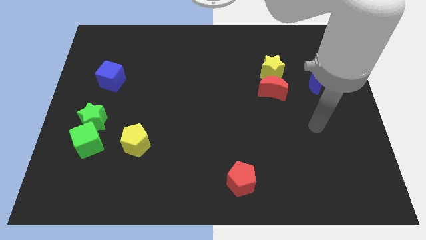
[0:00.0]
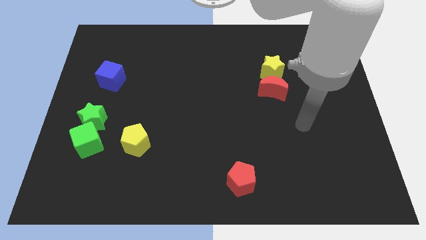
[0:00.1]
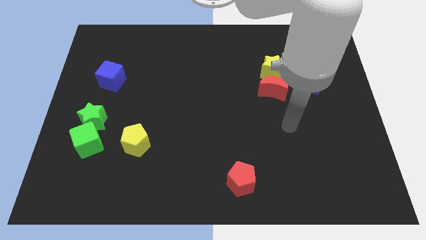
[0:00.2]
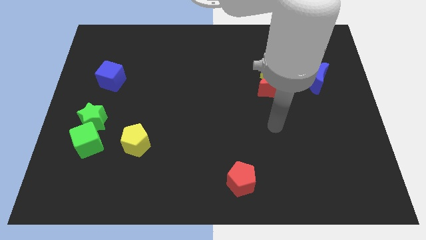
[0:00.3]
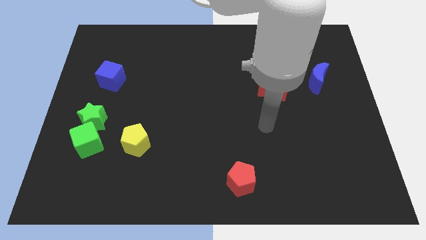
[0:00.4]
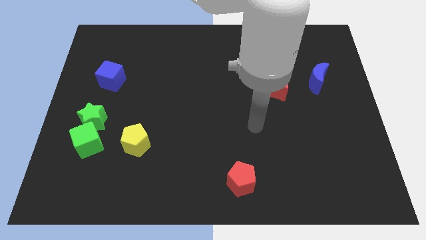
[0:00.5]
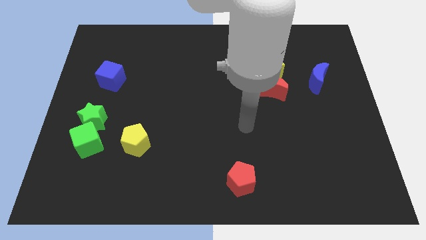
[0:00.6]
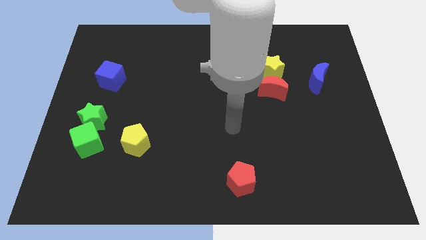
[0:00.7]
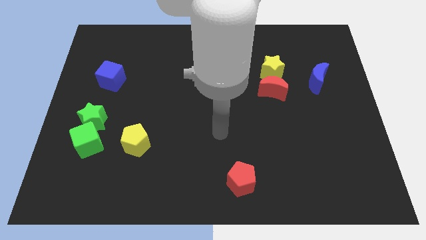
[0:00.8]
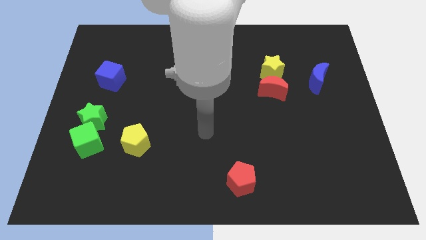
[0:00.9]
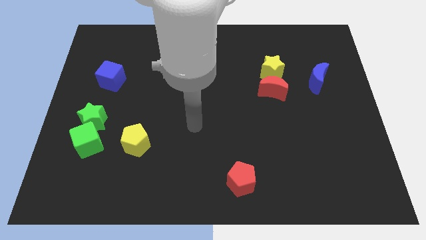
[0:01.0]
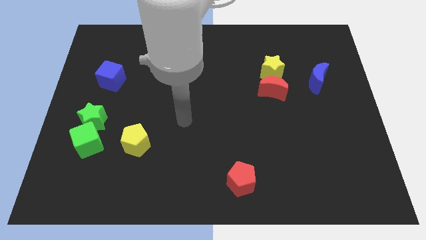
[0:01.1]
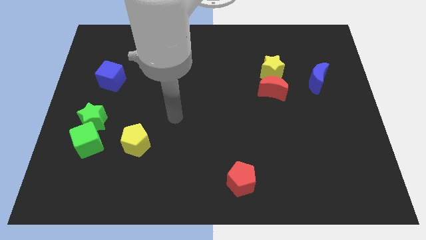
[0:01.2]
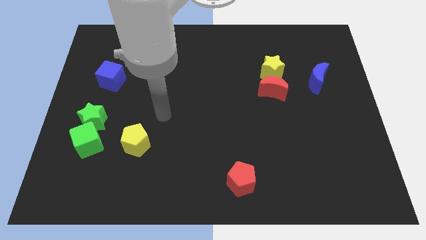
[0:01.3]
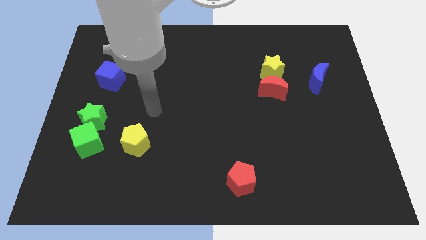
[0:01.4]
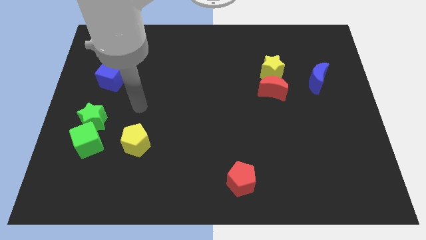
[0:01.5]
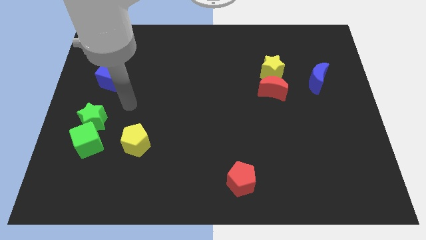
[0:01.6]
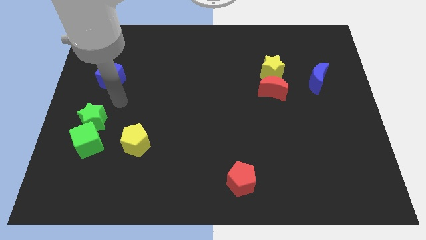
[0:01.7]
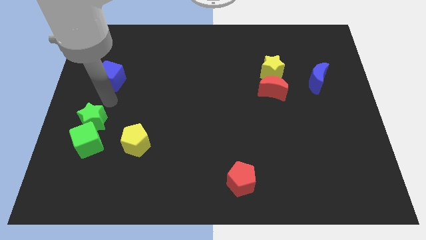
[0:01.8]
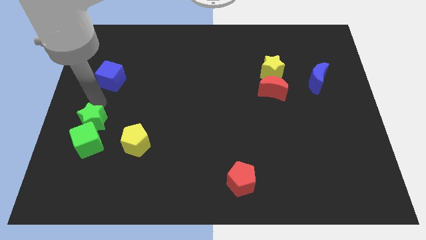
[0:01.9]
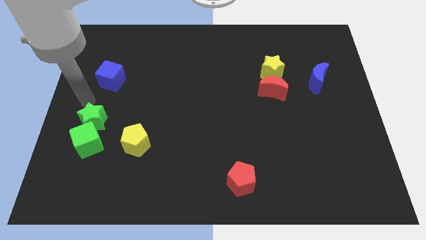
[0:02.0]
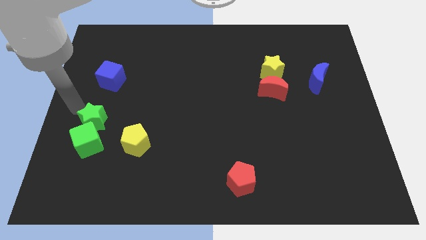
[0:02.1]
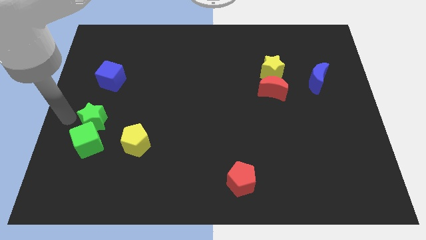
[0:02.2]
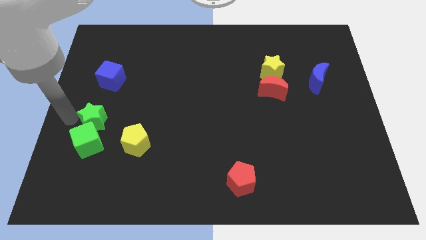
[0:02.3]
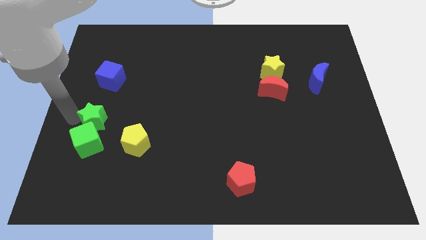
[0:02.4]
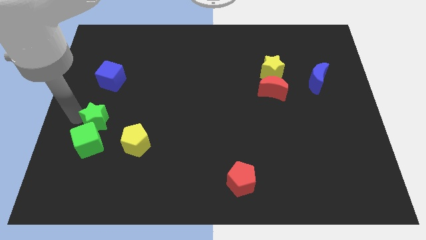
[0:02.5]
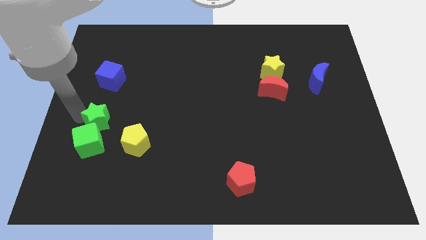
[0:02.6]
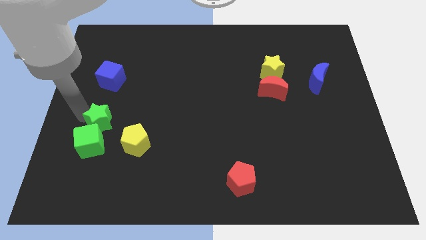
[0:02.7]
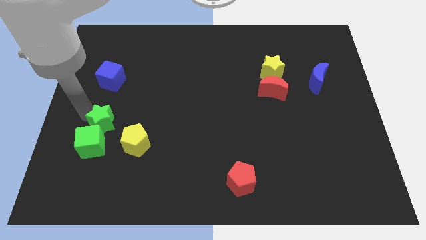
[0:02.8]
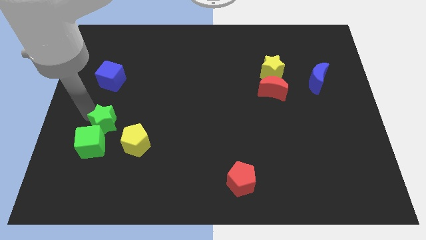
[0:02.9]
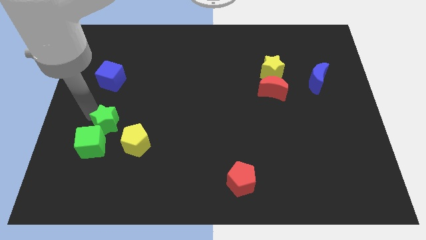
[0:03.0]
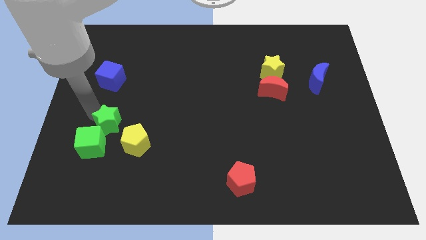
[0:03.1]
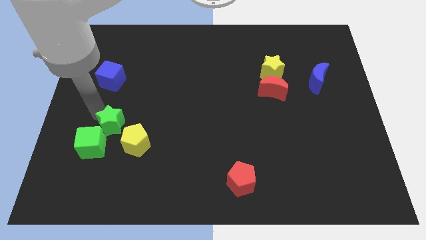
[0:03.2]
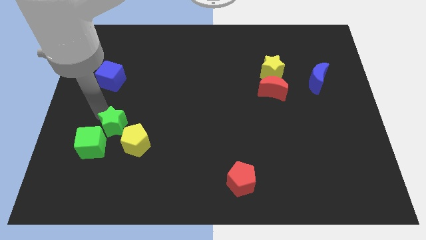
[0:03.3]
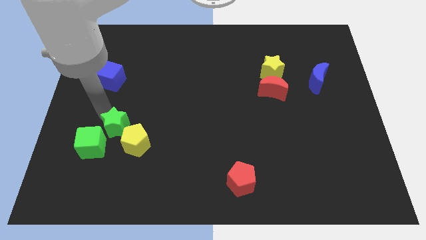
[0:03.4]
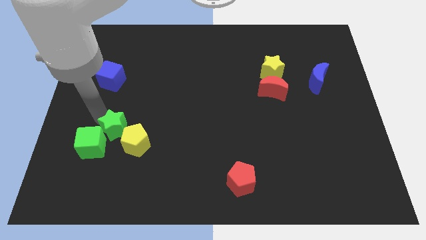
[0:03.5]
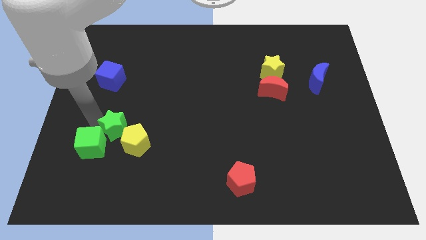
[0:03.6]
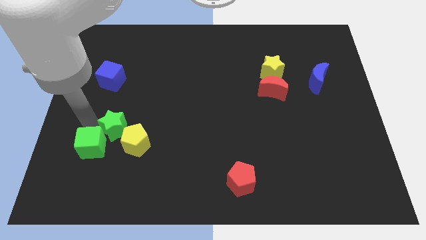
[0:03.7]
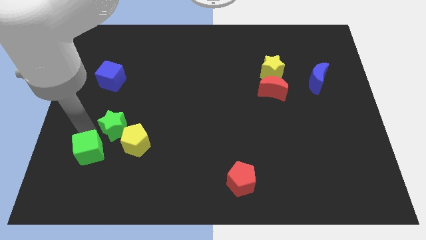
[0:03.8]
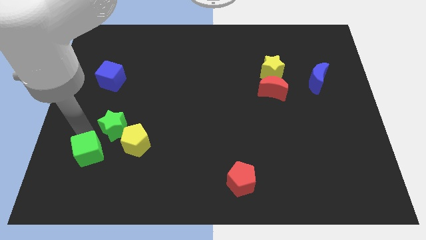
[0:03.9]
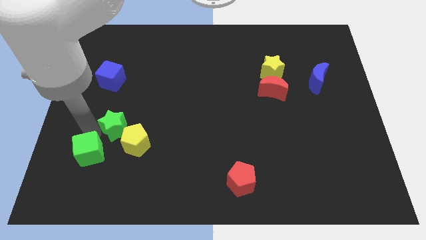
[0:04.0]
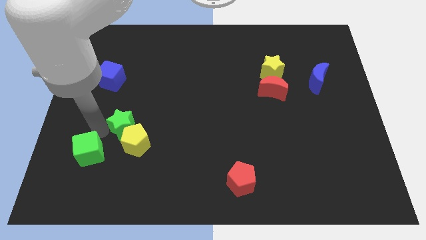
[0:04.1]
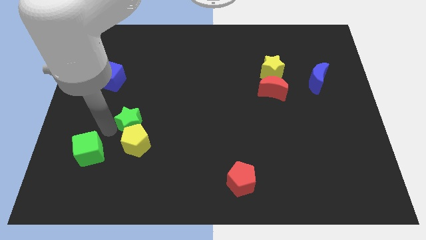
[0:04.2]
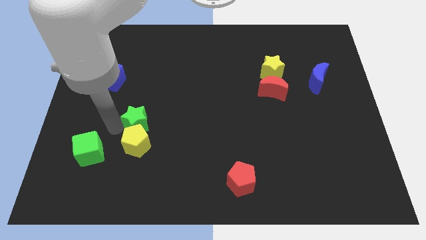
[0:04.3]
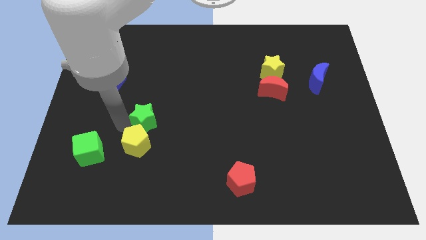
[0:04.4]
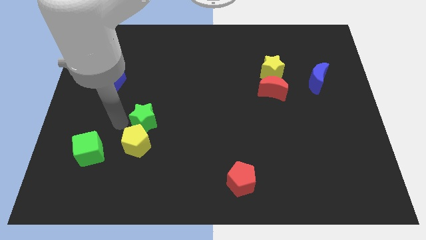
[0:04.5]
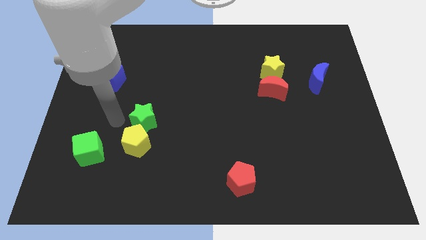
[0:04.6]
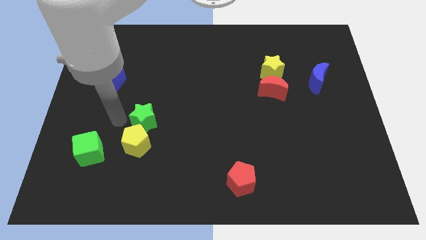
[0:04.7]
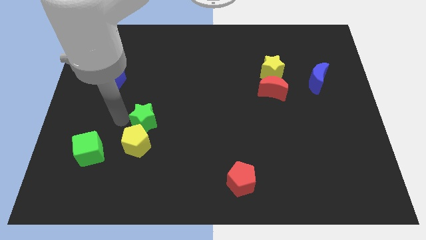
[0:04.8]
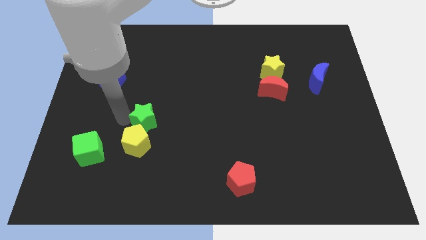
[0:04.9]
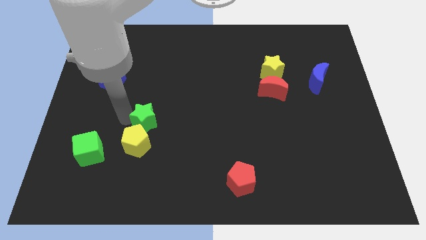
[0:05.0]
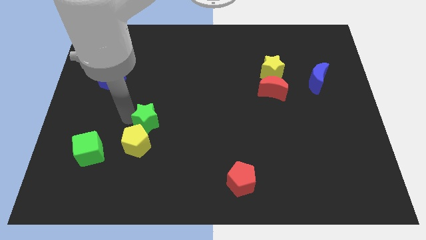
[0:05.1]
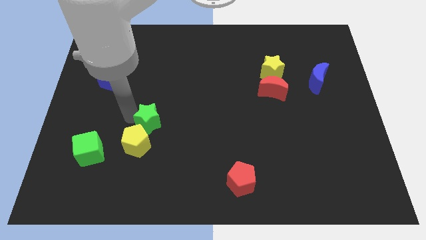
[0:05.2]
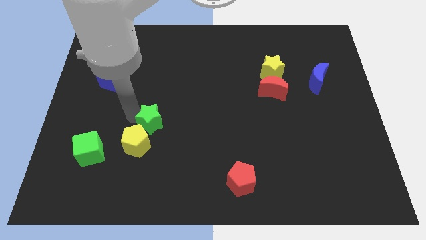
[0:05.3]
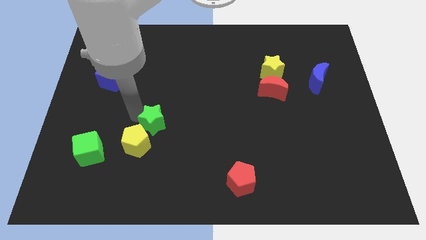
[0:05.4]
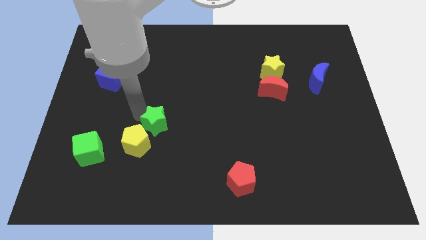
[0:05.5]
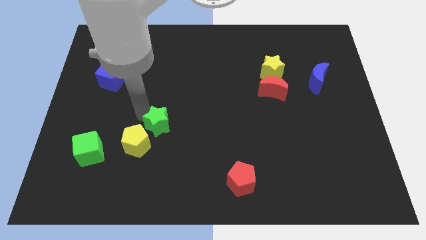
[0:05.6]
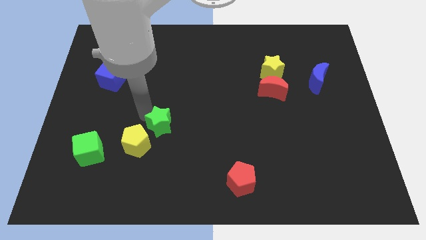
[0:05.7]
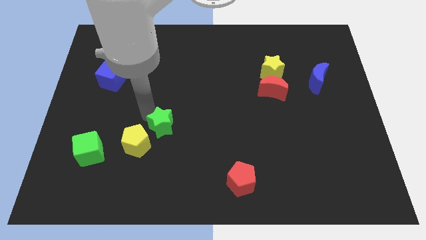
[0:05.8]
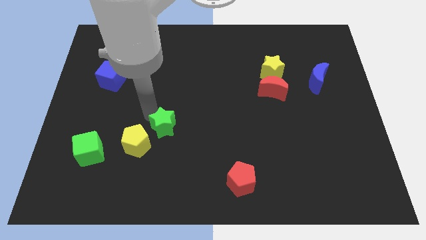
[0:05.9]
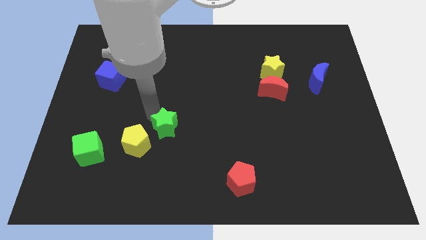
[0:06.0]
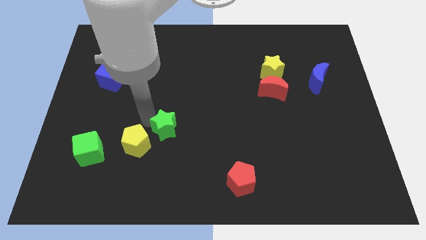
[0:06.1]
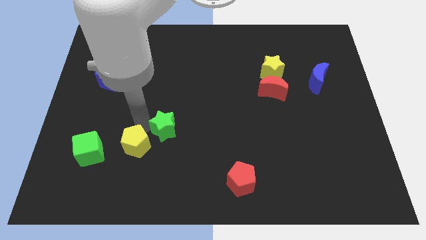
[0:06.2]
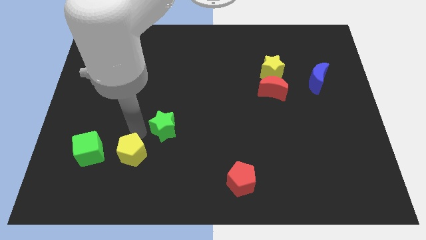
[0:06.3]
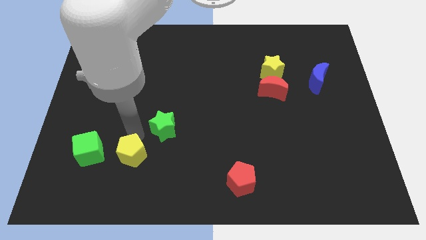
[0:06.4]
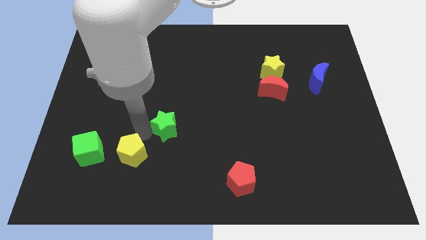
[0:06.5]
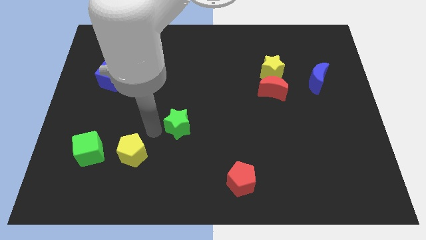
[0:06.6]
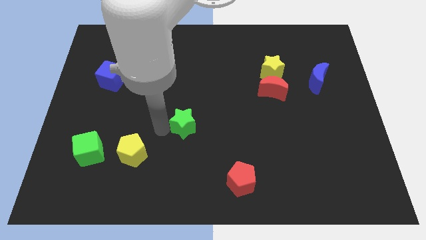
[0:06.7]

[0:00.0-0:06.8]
move the green star to the right

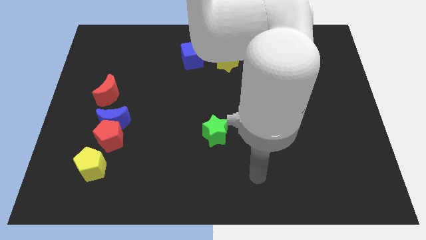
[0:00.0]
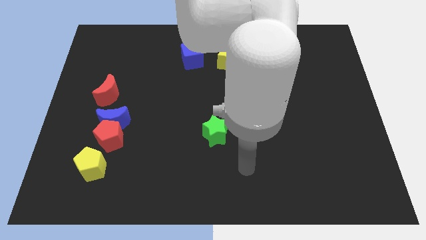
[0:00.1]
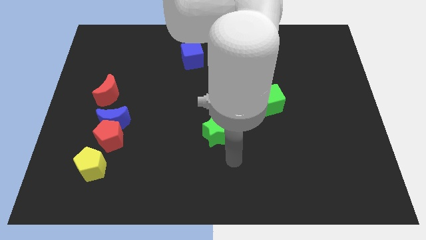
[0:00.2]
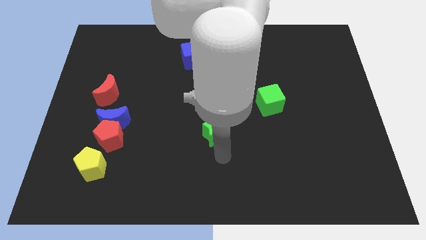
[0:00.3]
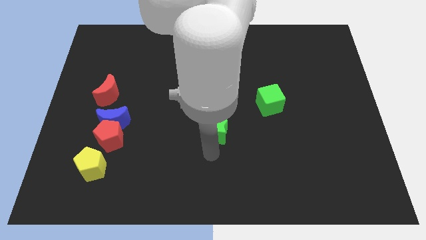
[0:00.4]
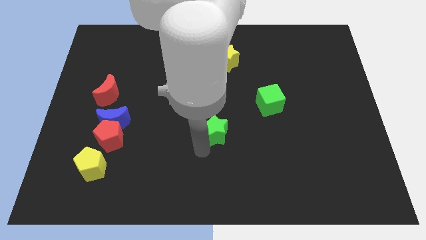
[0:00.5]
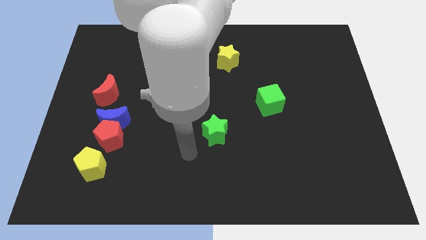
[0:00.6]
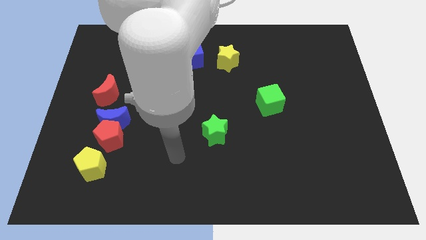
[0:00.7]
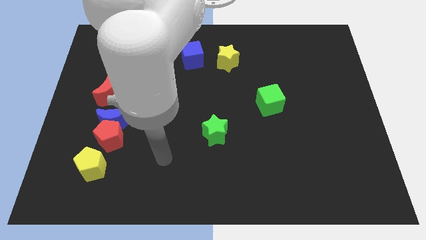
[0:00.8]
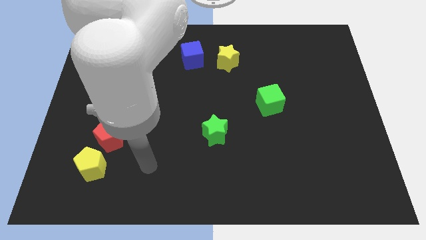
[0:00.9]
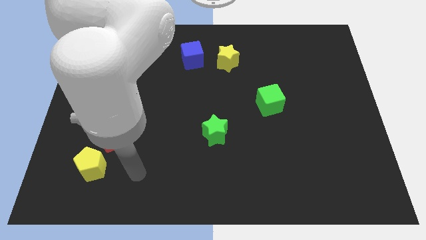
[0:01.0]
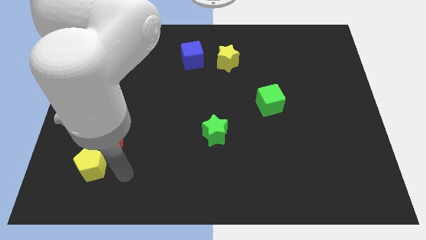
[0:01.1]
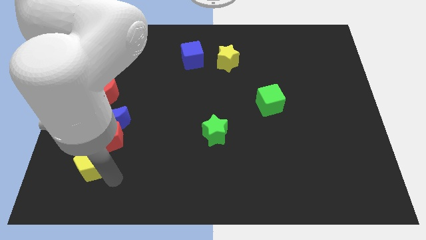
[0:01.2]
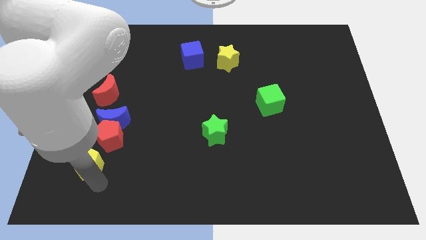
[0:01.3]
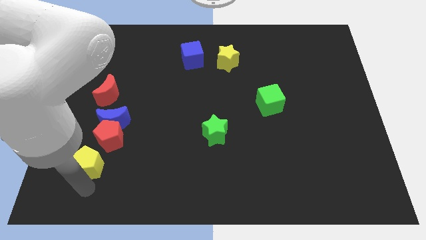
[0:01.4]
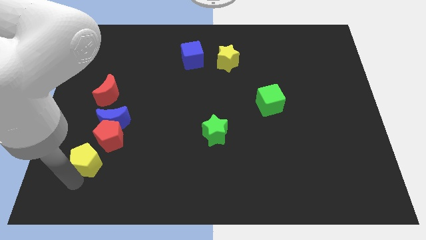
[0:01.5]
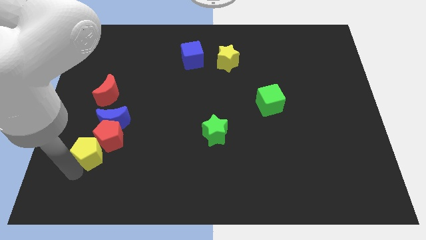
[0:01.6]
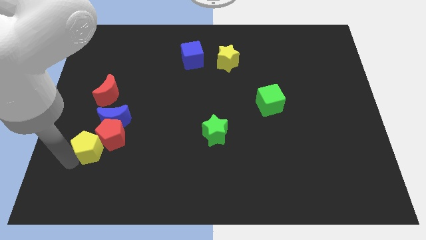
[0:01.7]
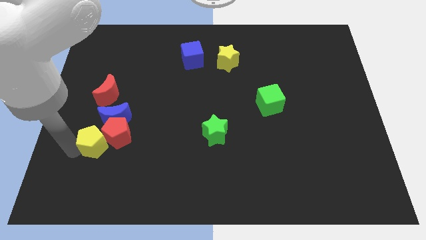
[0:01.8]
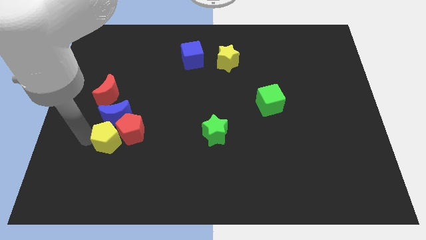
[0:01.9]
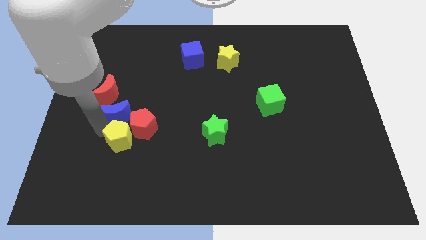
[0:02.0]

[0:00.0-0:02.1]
slightly slide the red pentagon right
